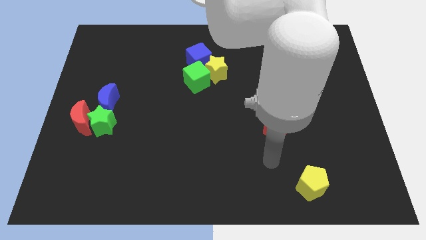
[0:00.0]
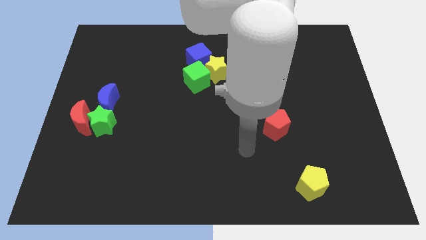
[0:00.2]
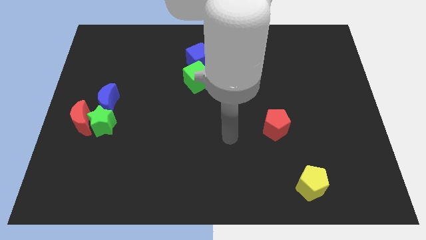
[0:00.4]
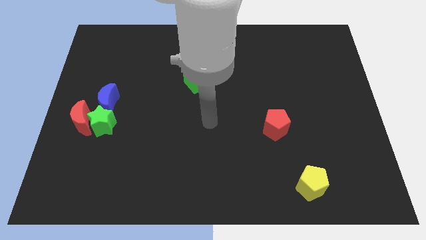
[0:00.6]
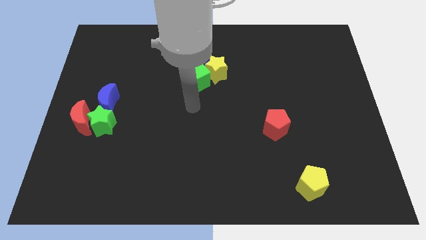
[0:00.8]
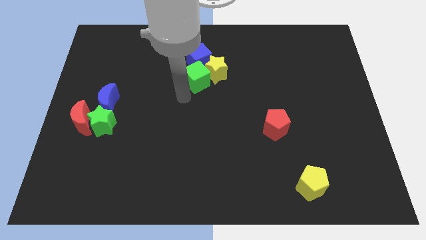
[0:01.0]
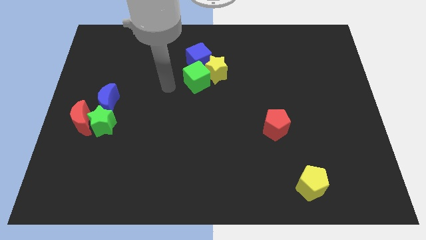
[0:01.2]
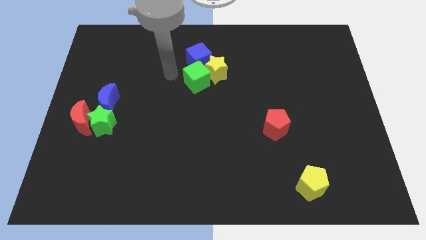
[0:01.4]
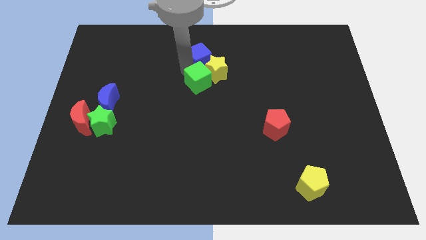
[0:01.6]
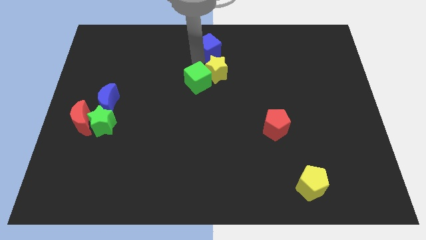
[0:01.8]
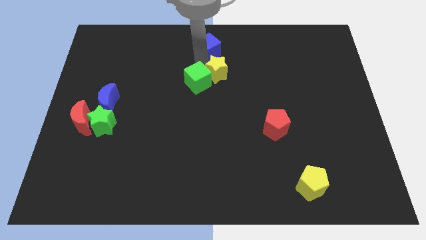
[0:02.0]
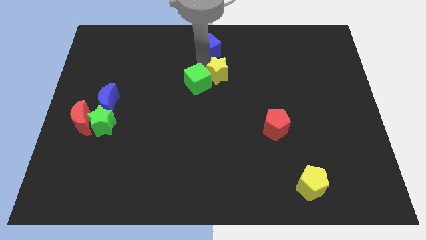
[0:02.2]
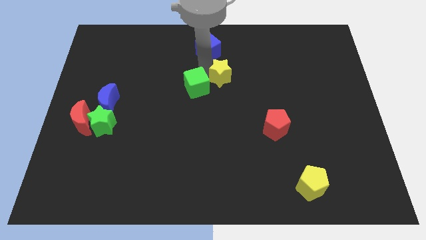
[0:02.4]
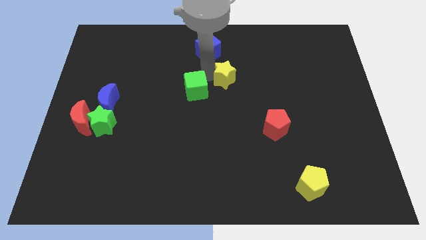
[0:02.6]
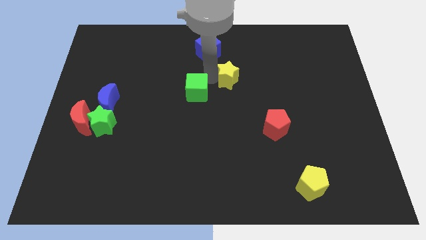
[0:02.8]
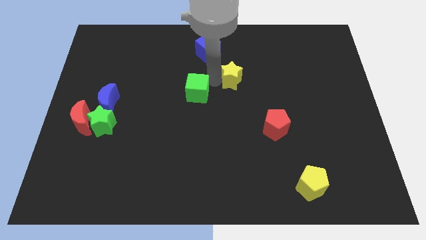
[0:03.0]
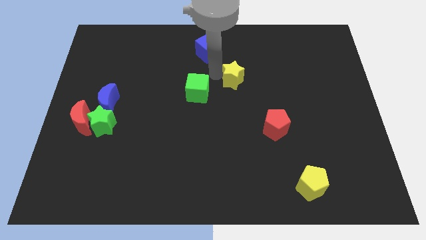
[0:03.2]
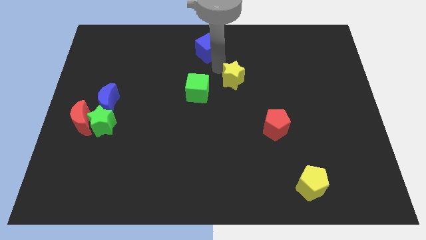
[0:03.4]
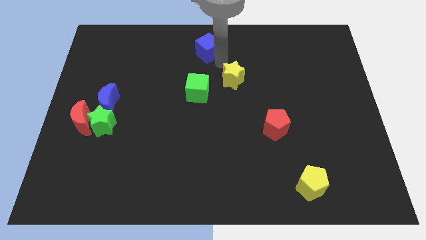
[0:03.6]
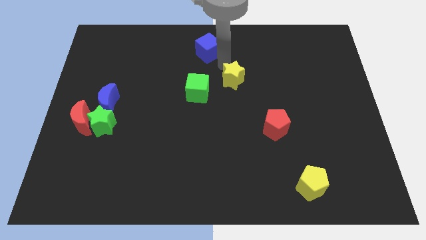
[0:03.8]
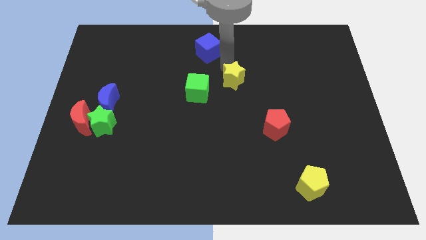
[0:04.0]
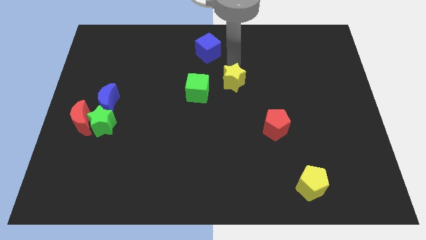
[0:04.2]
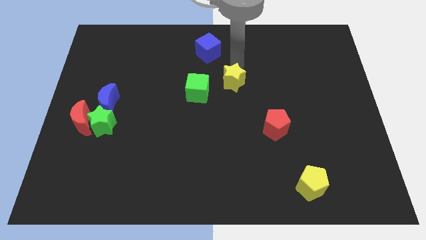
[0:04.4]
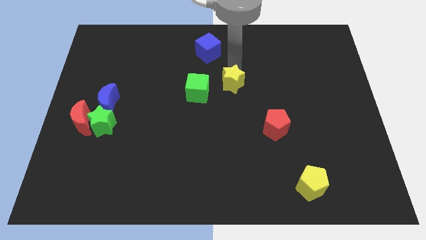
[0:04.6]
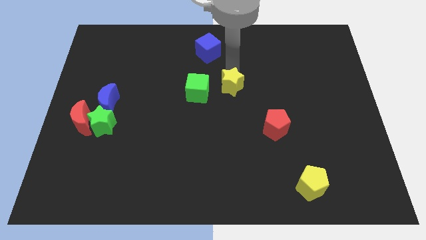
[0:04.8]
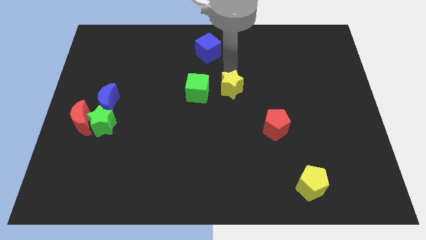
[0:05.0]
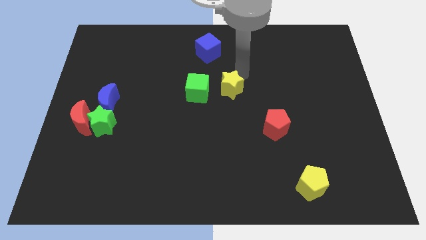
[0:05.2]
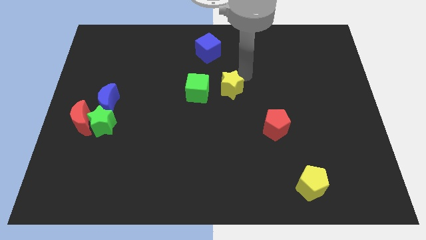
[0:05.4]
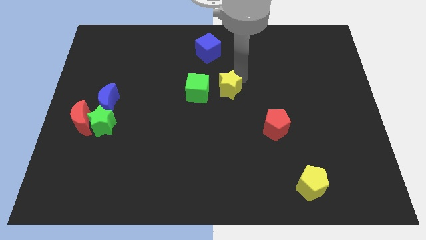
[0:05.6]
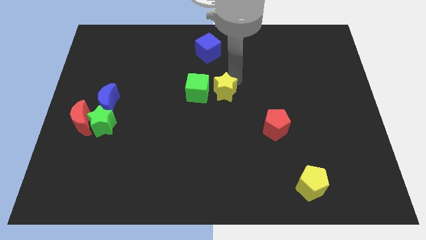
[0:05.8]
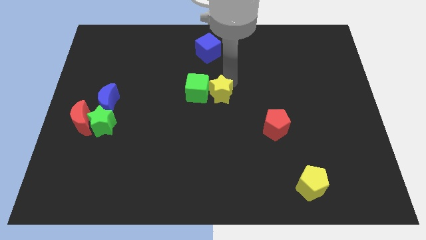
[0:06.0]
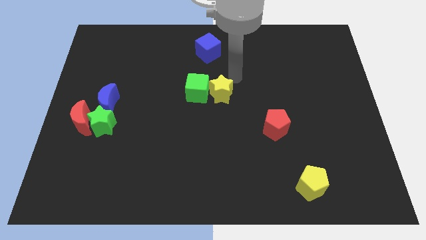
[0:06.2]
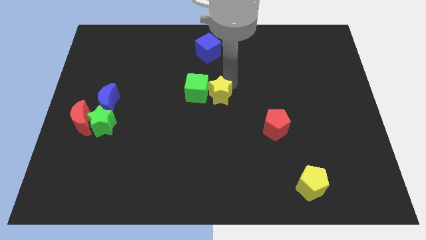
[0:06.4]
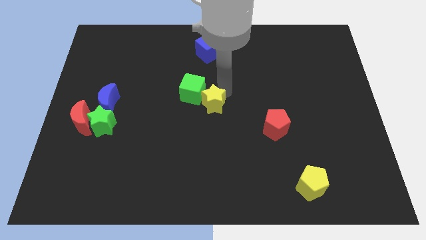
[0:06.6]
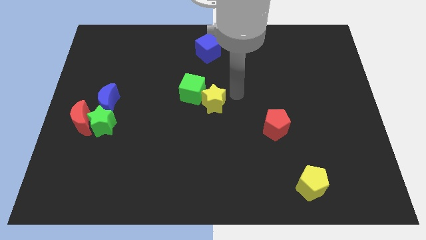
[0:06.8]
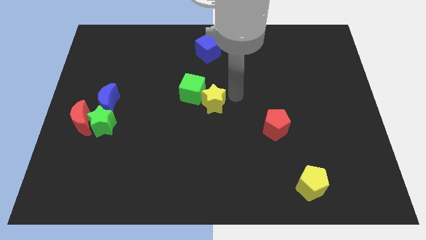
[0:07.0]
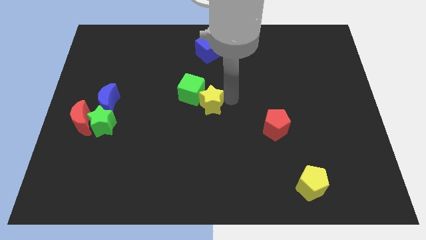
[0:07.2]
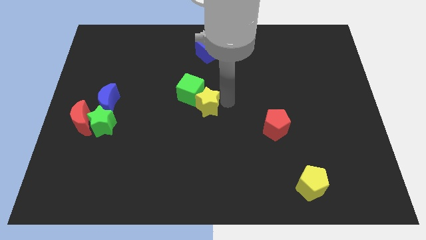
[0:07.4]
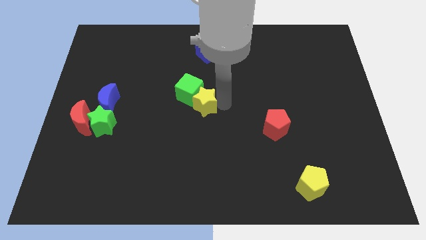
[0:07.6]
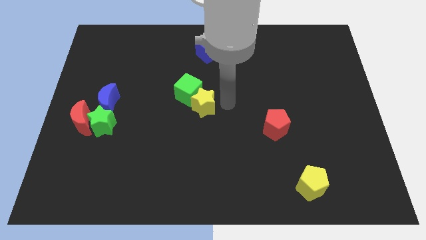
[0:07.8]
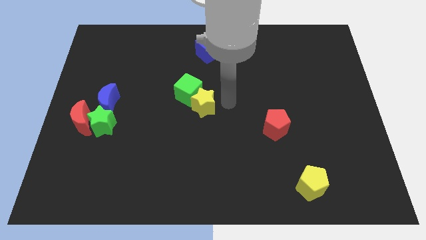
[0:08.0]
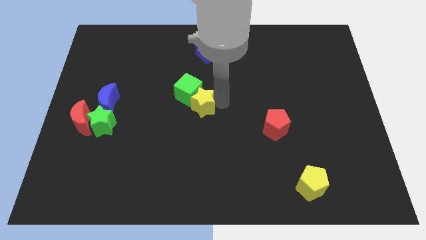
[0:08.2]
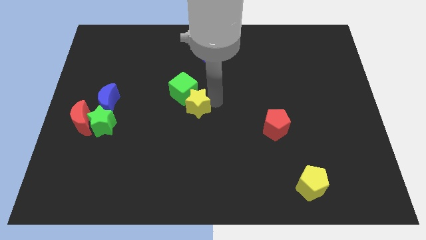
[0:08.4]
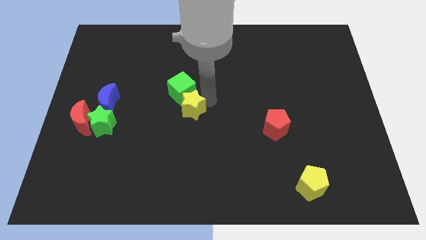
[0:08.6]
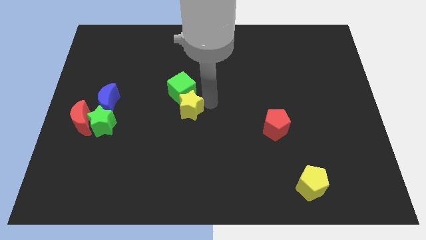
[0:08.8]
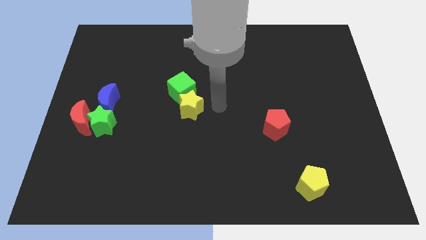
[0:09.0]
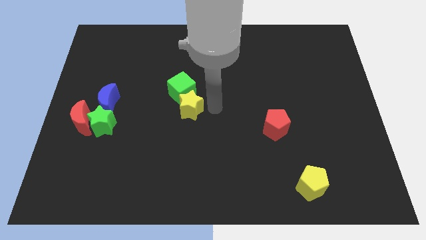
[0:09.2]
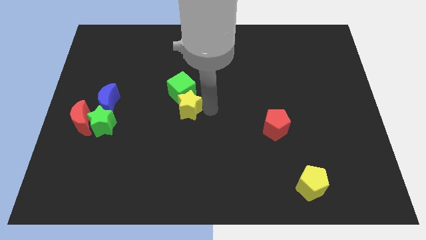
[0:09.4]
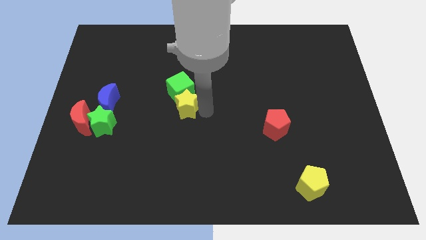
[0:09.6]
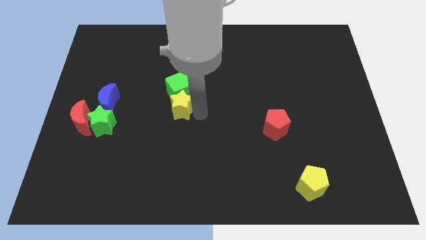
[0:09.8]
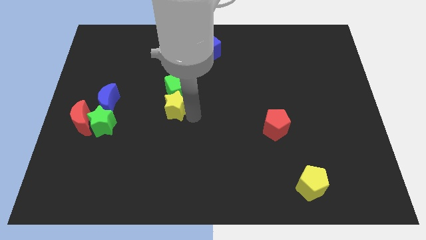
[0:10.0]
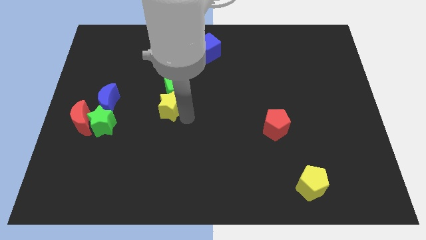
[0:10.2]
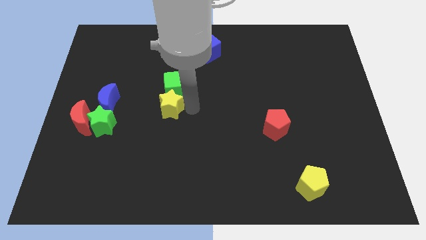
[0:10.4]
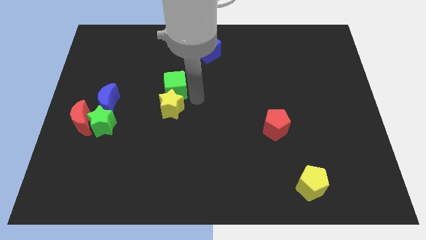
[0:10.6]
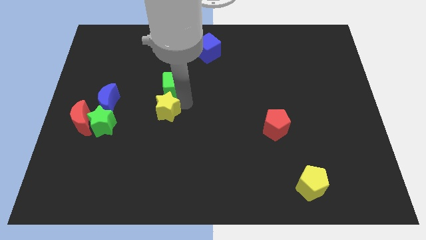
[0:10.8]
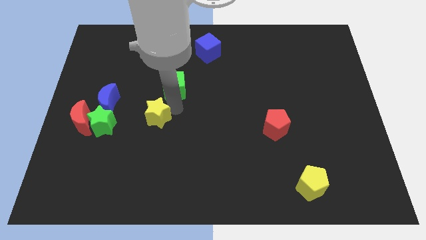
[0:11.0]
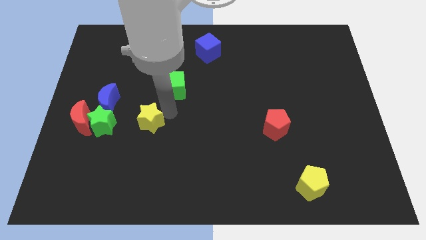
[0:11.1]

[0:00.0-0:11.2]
push the yellow star right of the red moon

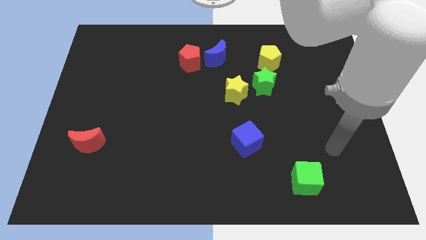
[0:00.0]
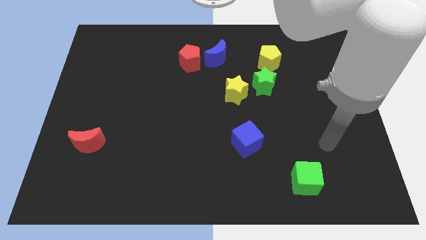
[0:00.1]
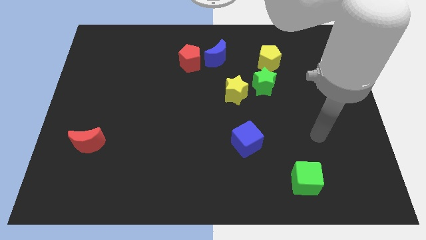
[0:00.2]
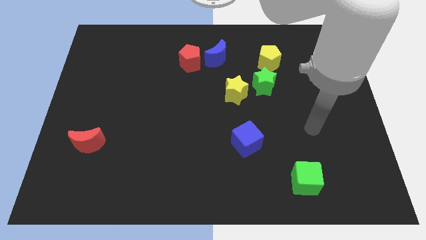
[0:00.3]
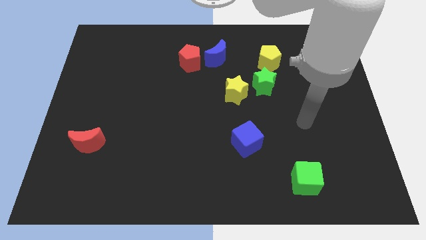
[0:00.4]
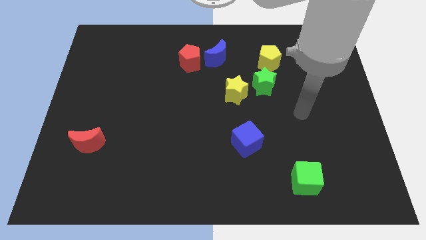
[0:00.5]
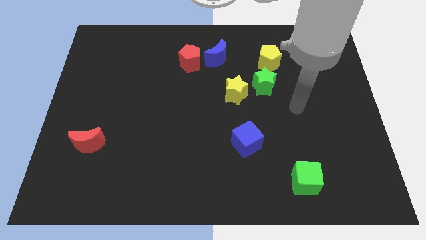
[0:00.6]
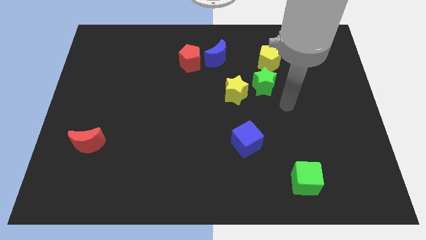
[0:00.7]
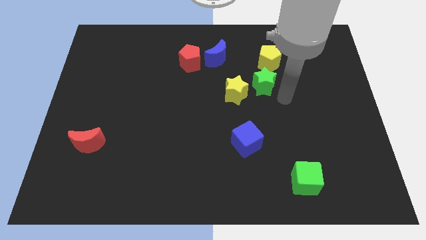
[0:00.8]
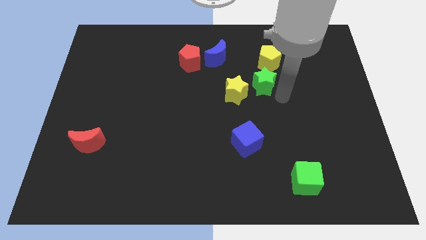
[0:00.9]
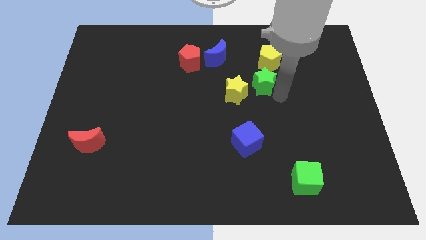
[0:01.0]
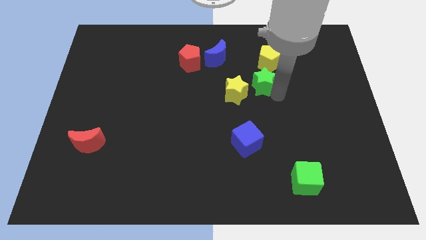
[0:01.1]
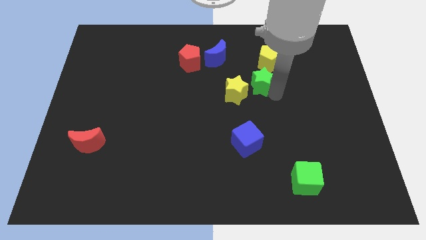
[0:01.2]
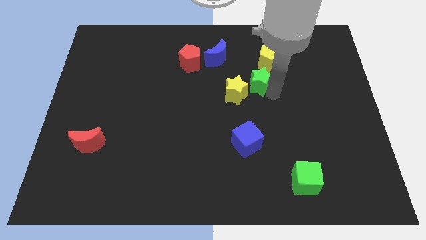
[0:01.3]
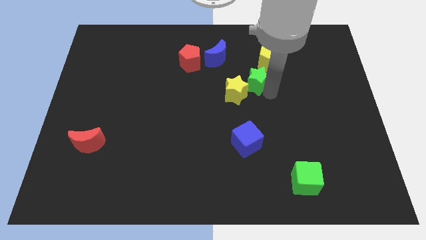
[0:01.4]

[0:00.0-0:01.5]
push the green star diagonally down and to the right of the blue moon
